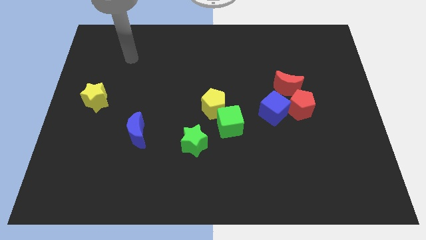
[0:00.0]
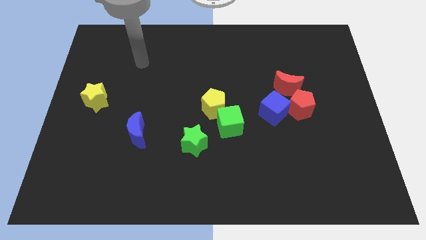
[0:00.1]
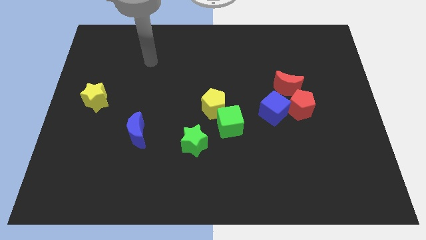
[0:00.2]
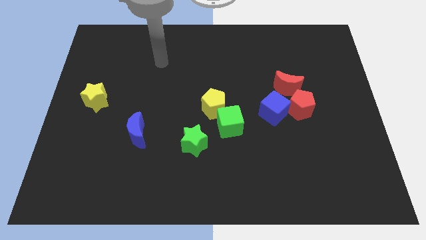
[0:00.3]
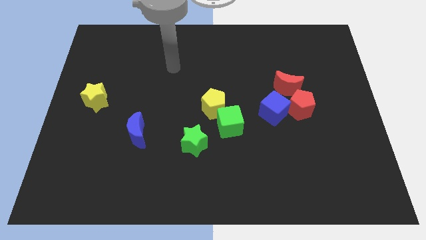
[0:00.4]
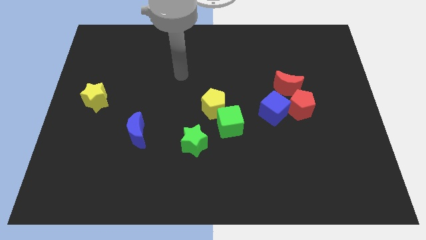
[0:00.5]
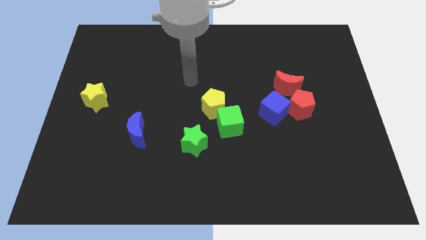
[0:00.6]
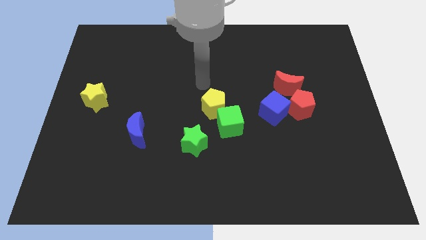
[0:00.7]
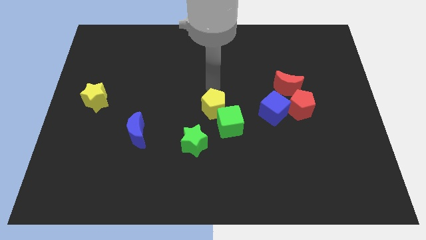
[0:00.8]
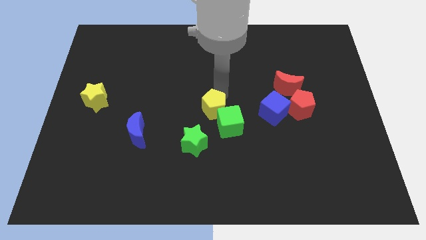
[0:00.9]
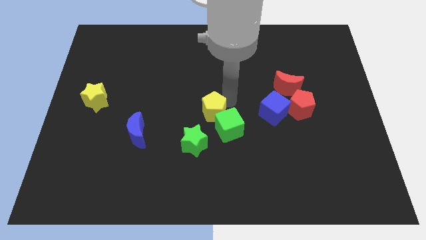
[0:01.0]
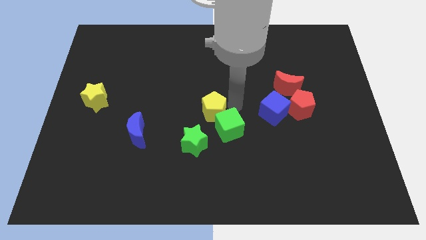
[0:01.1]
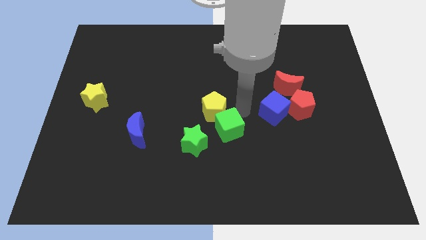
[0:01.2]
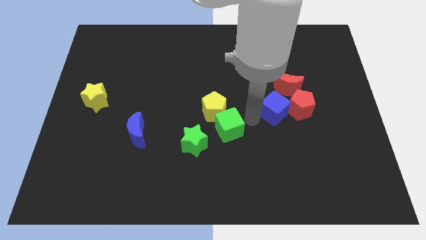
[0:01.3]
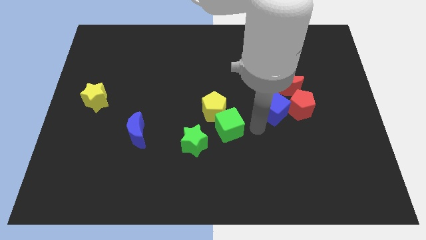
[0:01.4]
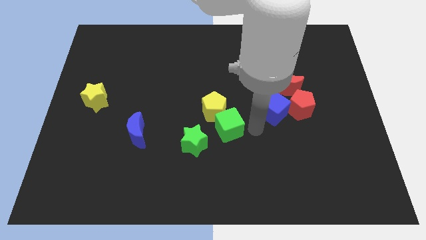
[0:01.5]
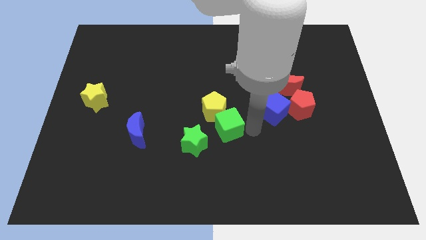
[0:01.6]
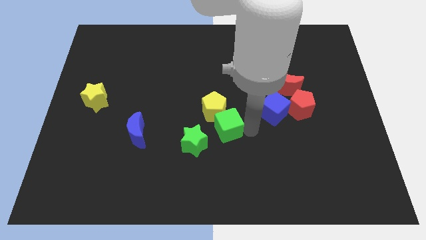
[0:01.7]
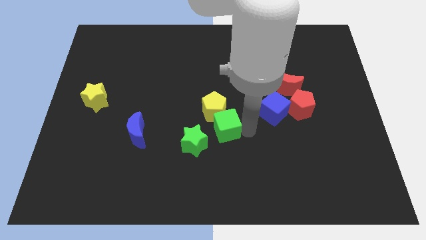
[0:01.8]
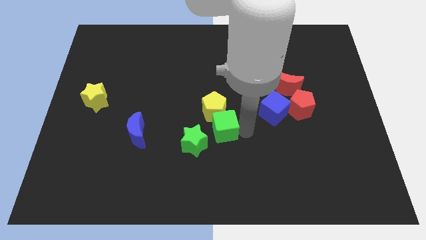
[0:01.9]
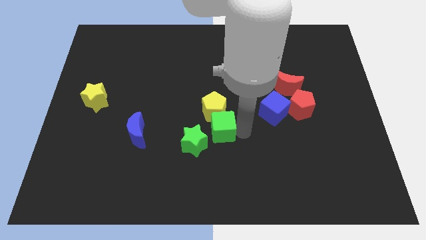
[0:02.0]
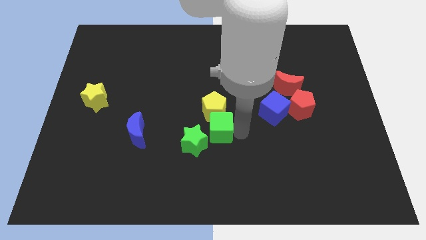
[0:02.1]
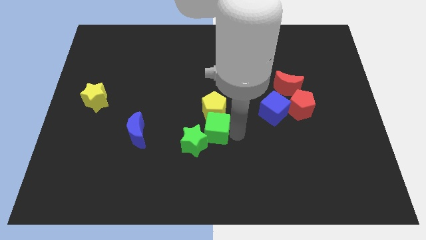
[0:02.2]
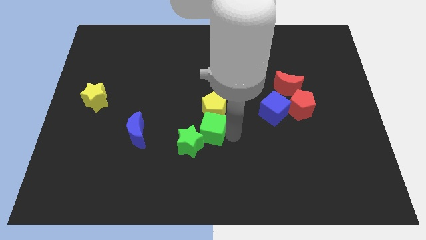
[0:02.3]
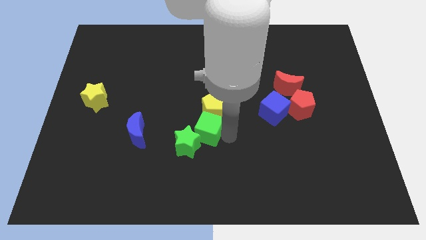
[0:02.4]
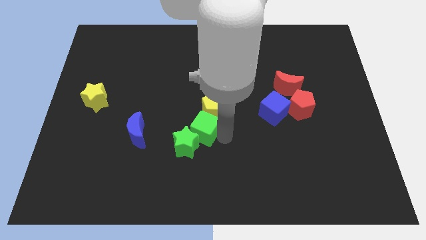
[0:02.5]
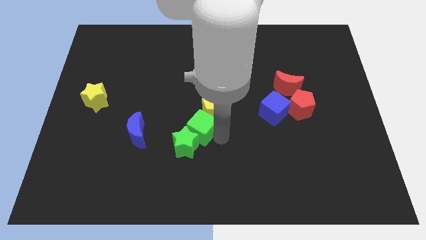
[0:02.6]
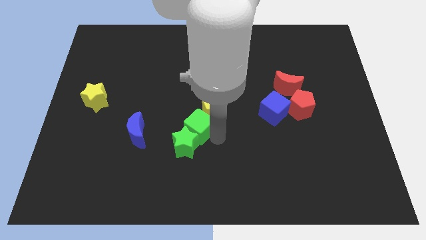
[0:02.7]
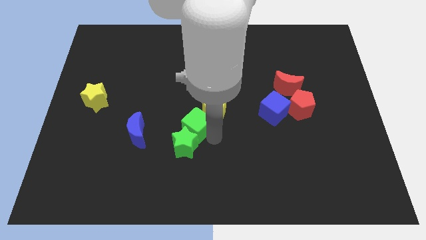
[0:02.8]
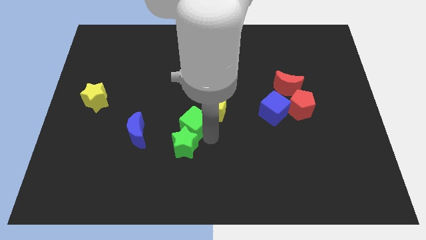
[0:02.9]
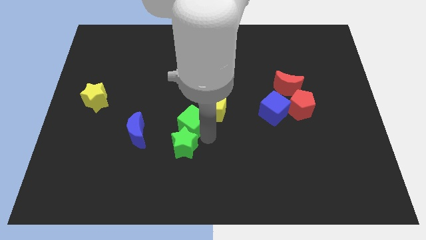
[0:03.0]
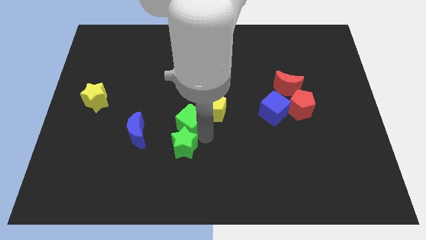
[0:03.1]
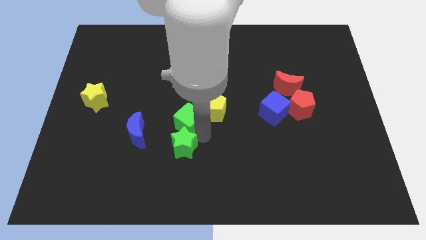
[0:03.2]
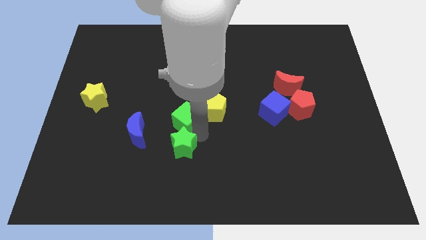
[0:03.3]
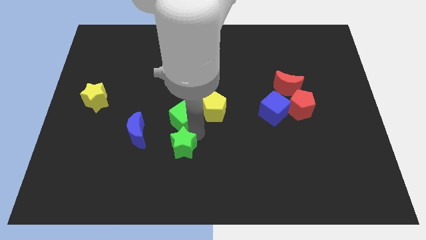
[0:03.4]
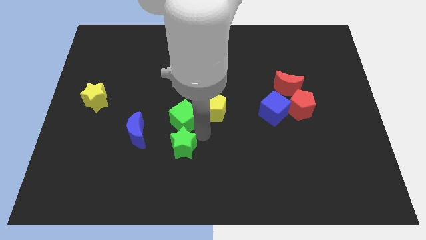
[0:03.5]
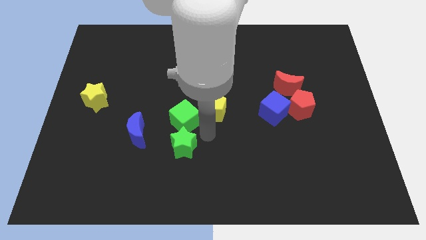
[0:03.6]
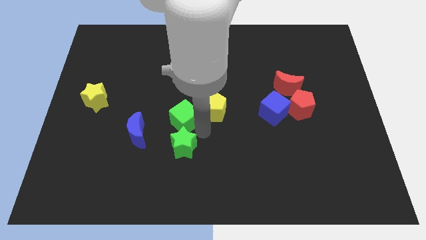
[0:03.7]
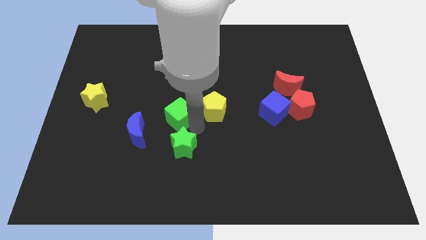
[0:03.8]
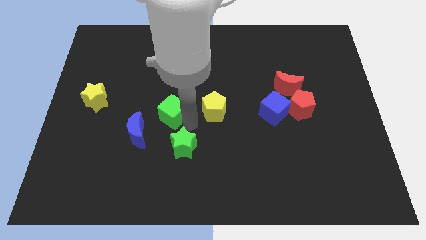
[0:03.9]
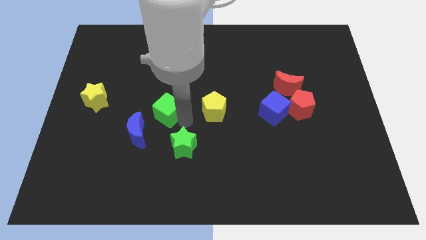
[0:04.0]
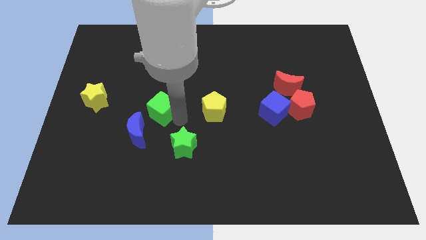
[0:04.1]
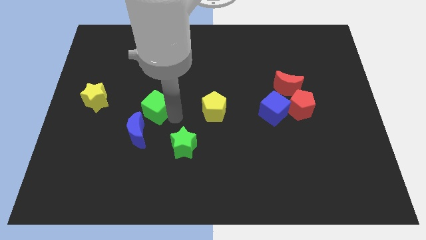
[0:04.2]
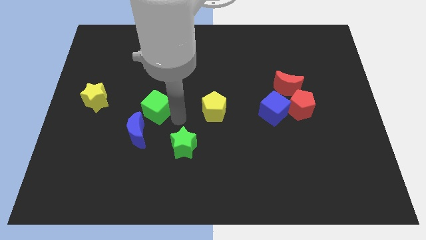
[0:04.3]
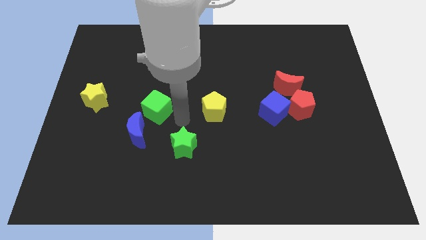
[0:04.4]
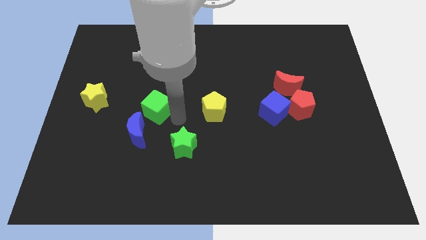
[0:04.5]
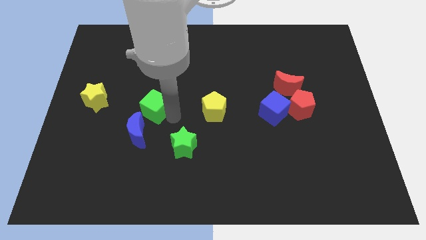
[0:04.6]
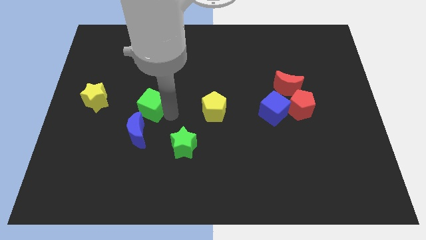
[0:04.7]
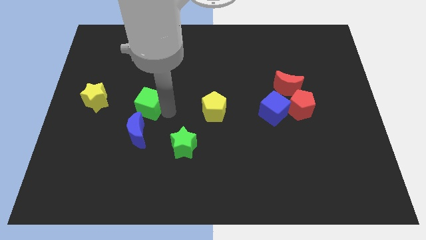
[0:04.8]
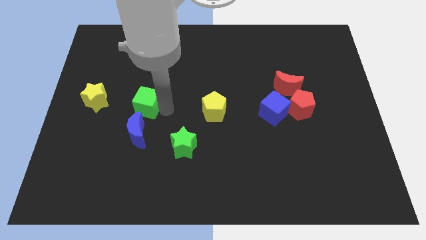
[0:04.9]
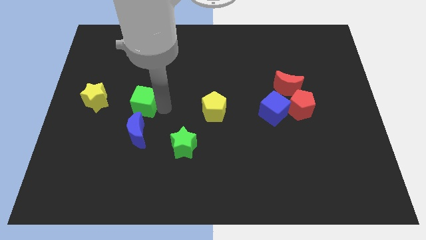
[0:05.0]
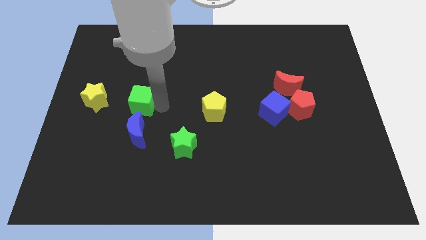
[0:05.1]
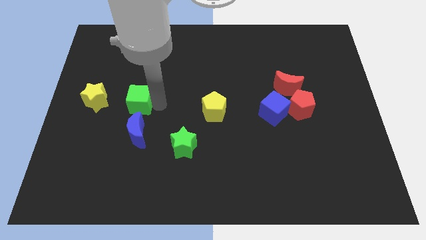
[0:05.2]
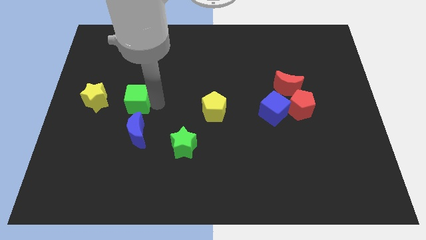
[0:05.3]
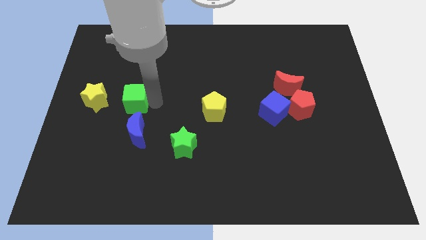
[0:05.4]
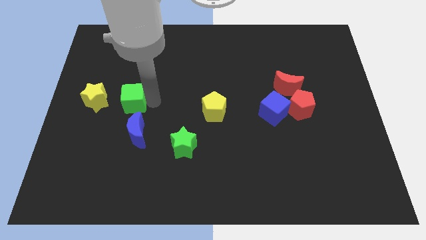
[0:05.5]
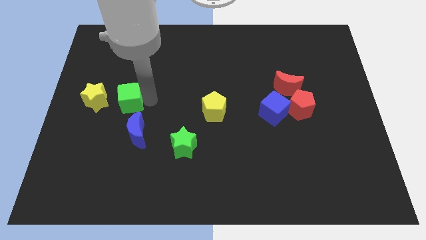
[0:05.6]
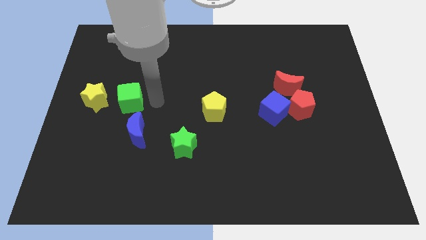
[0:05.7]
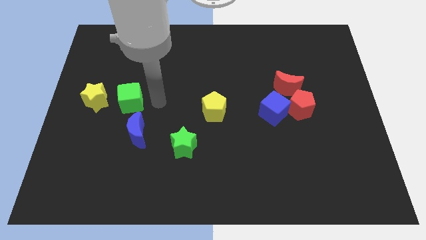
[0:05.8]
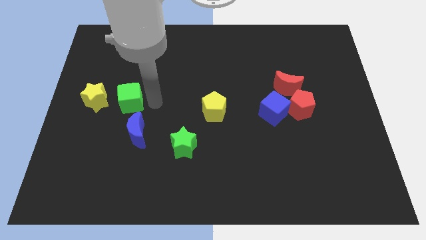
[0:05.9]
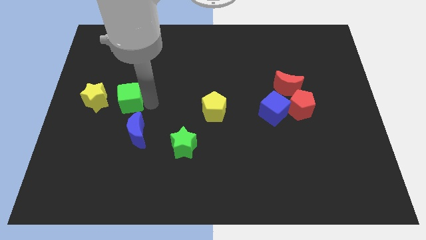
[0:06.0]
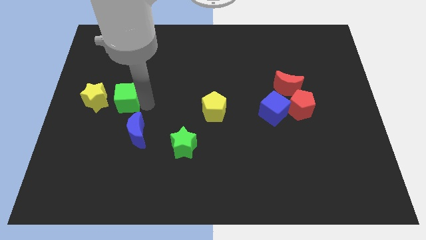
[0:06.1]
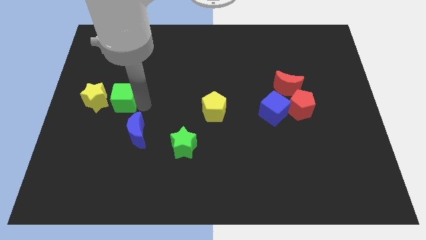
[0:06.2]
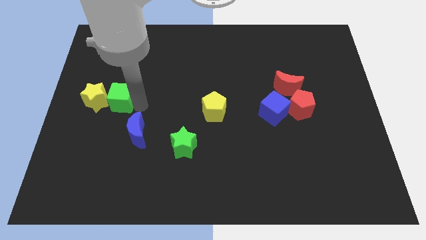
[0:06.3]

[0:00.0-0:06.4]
push the green cube close to the yellow star

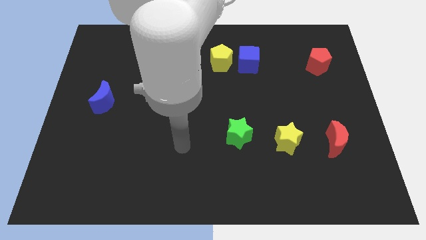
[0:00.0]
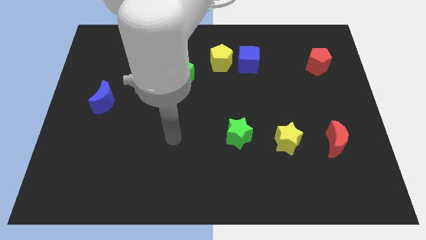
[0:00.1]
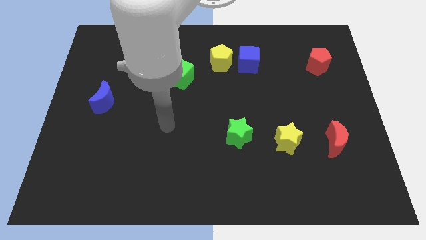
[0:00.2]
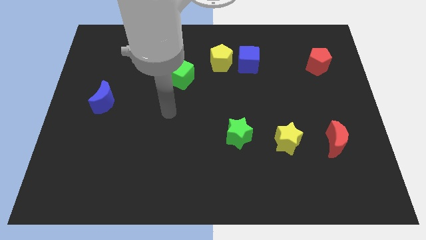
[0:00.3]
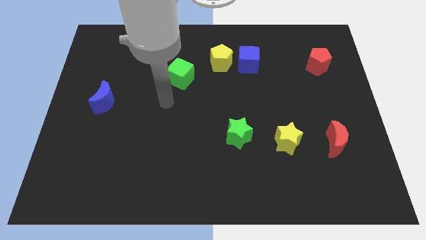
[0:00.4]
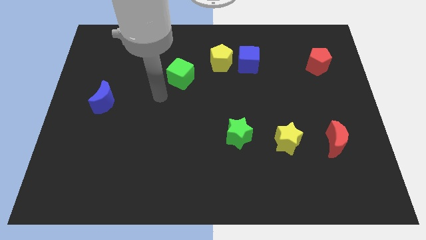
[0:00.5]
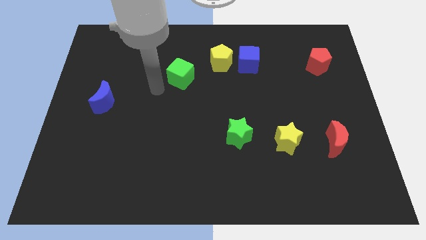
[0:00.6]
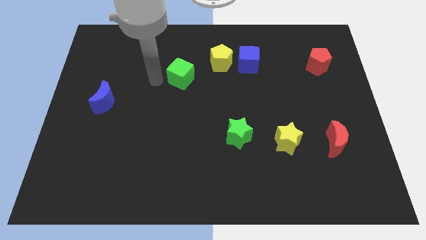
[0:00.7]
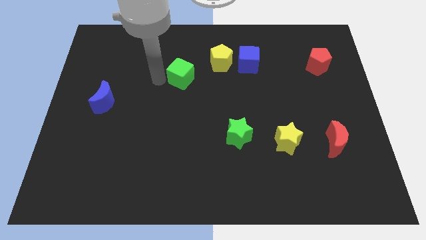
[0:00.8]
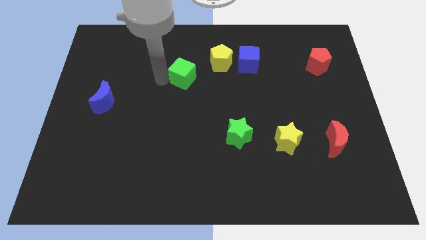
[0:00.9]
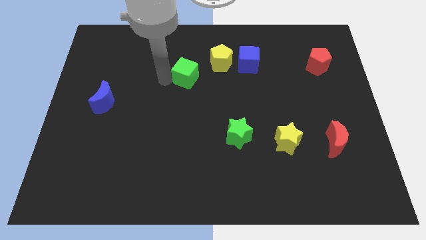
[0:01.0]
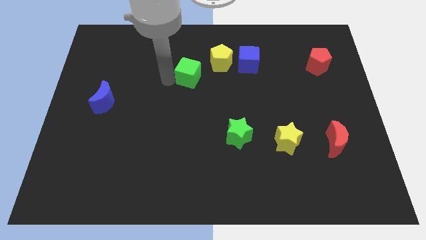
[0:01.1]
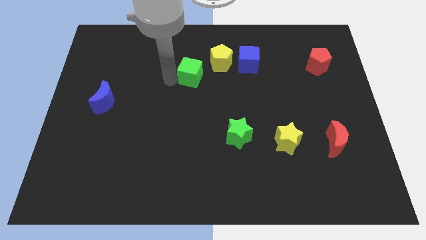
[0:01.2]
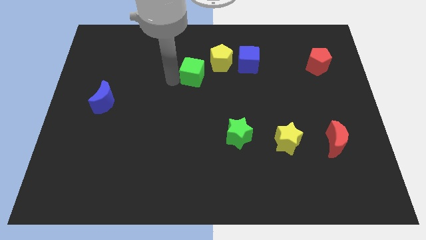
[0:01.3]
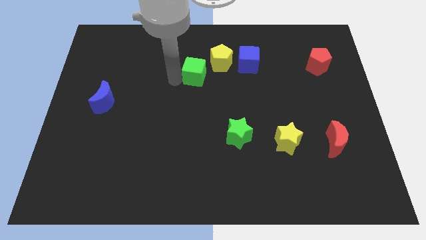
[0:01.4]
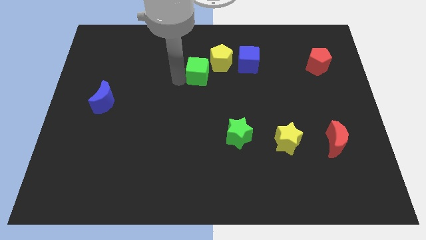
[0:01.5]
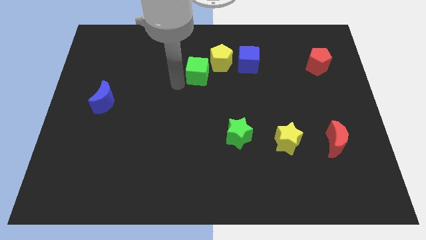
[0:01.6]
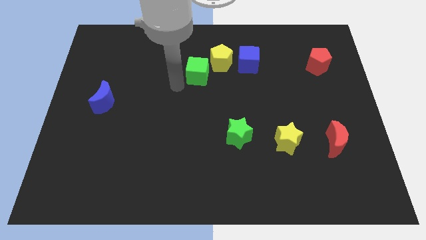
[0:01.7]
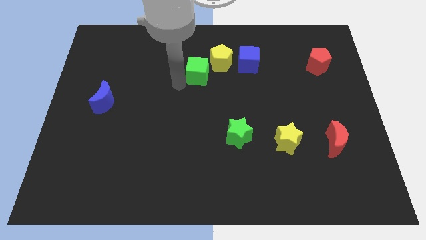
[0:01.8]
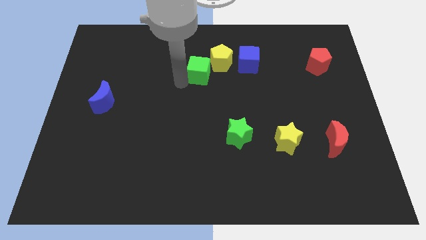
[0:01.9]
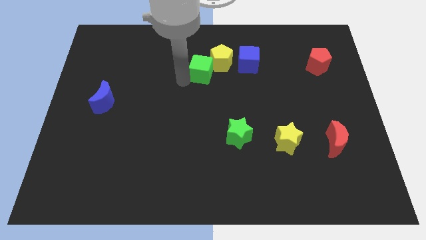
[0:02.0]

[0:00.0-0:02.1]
push the green cube next to the yellow pentagon
